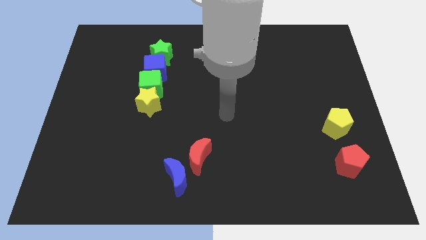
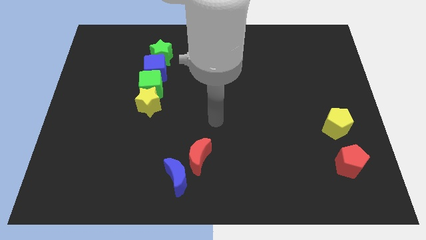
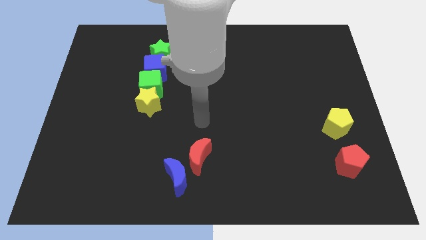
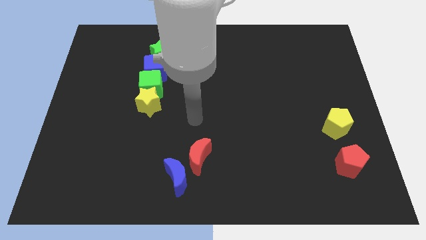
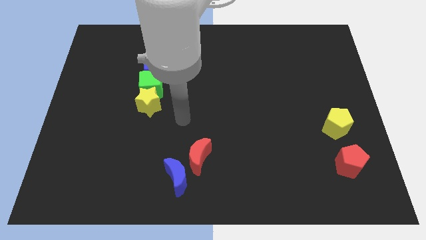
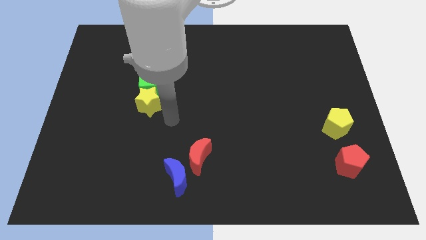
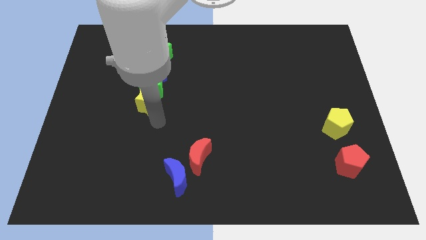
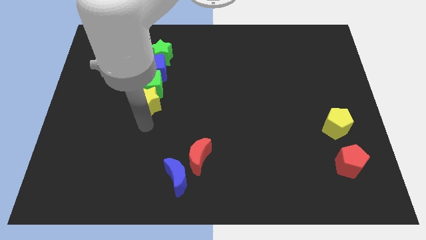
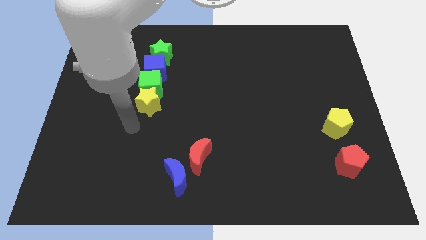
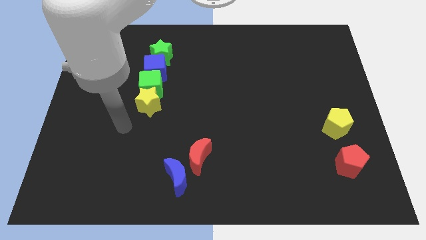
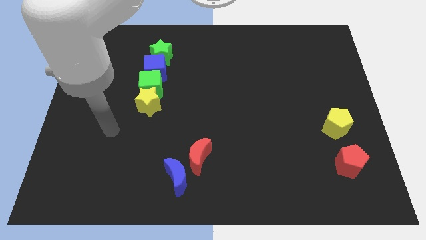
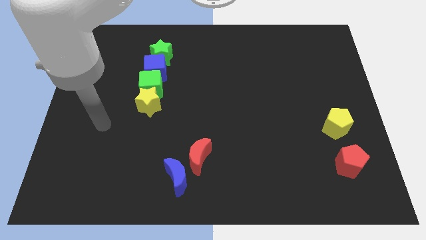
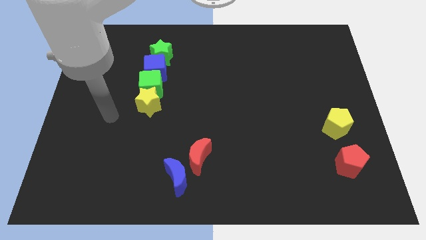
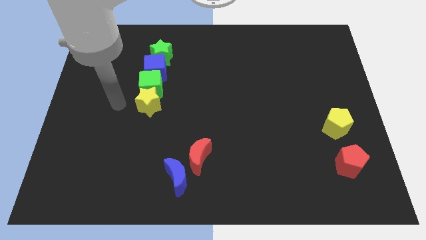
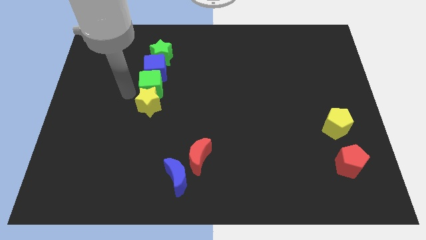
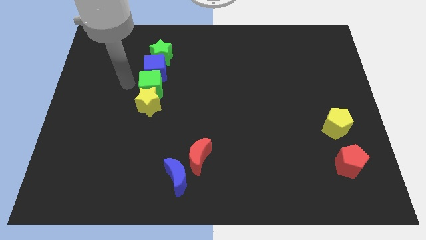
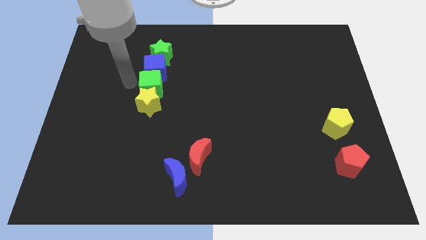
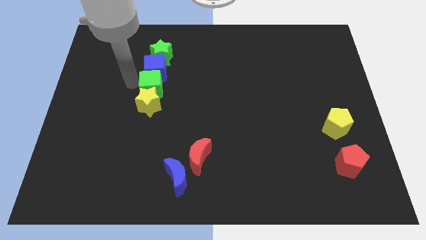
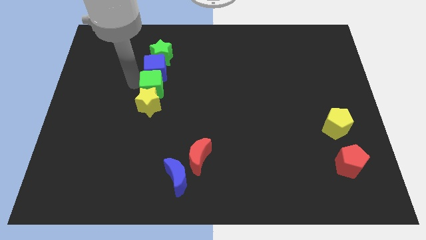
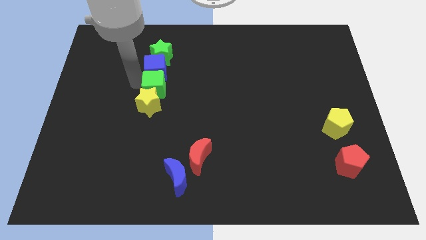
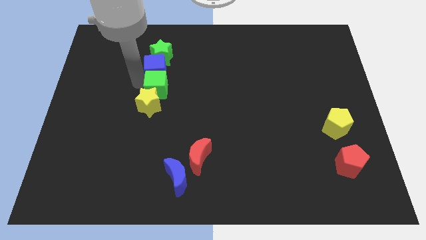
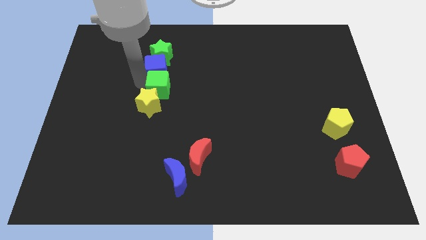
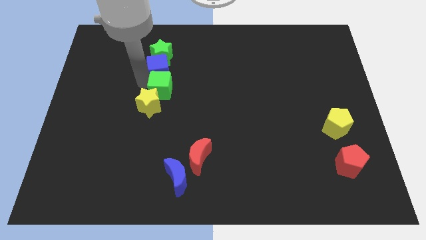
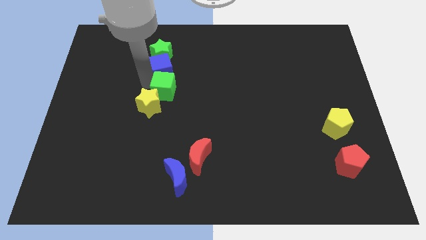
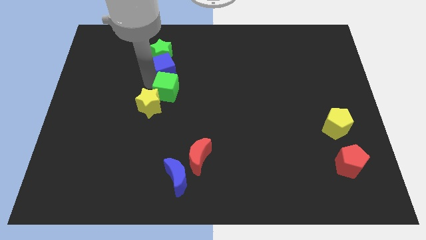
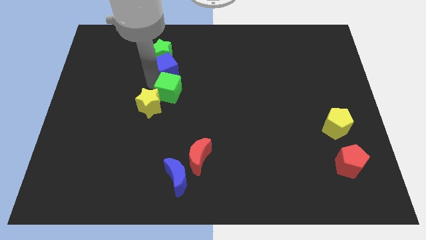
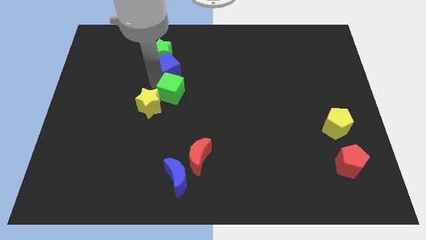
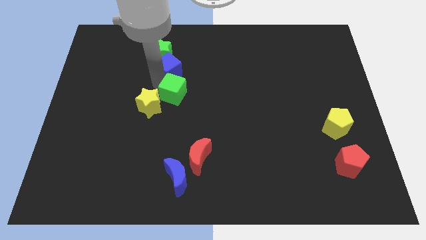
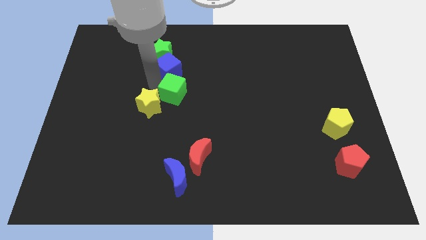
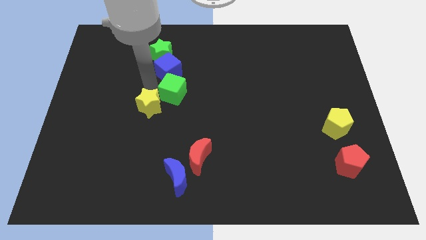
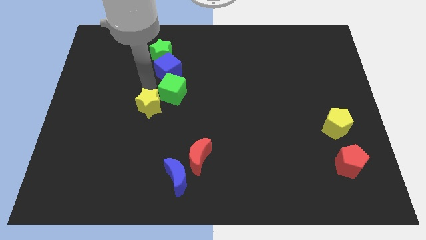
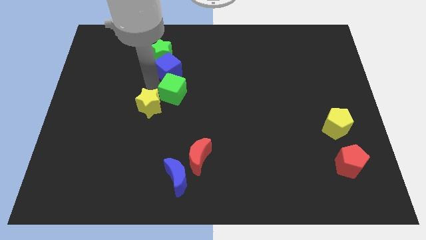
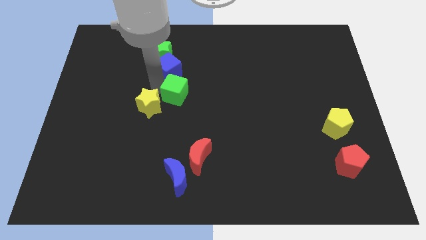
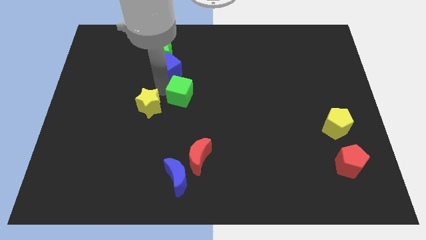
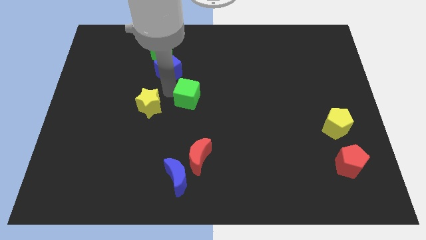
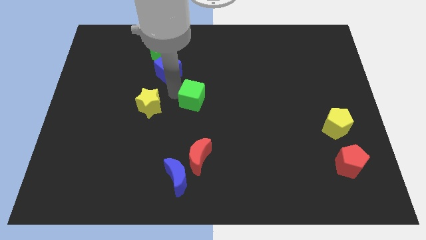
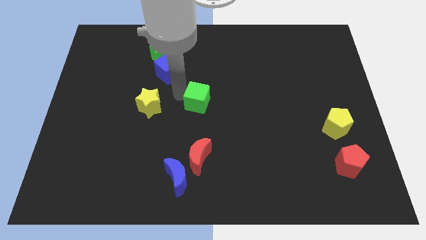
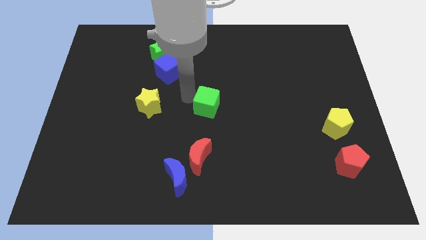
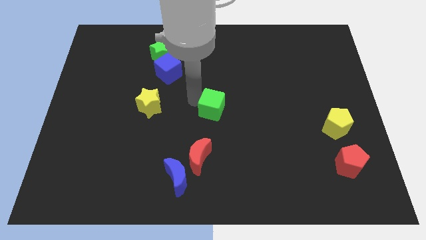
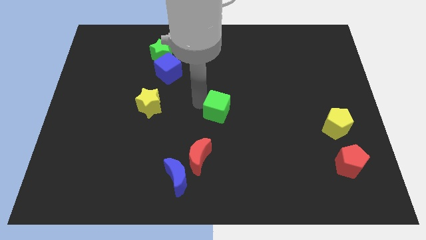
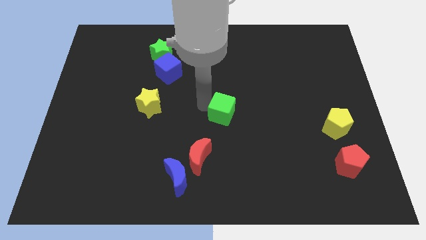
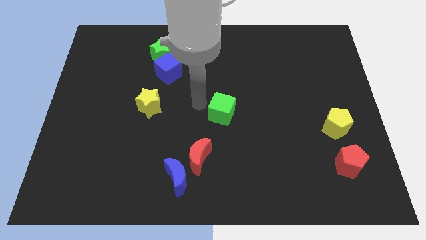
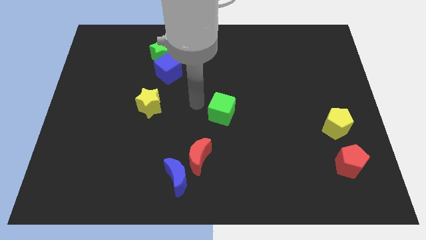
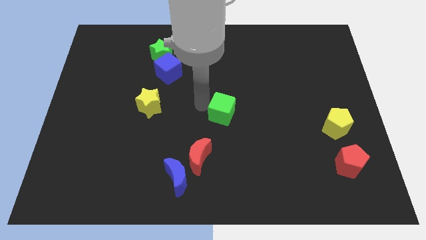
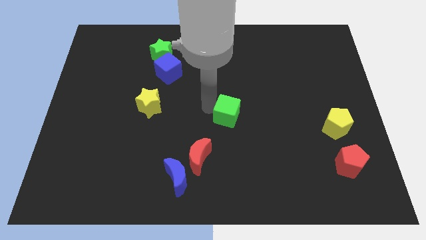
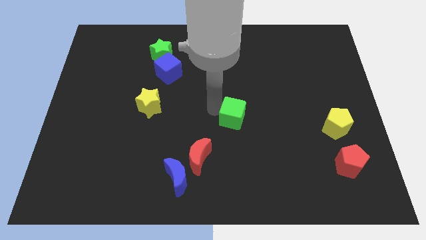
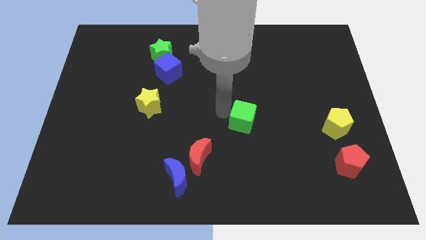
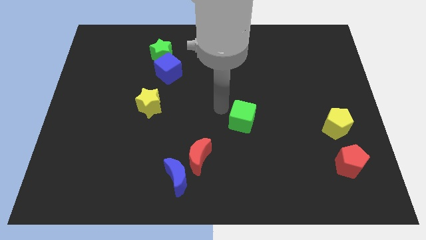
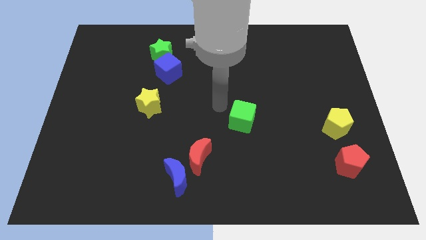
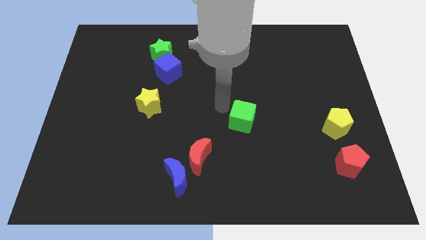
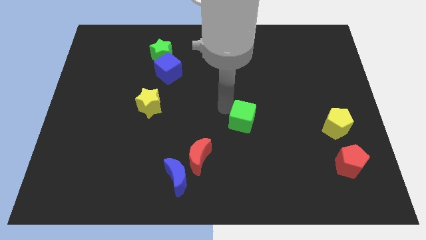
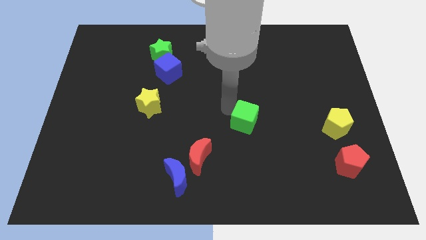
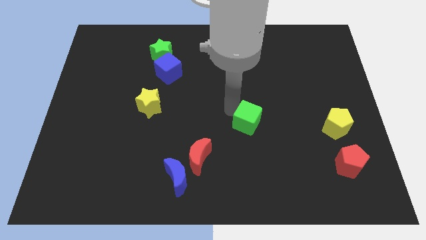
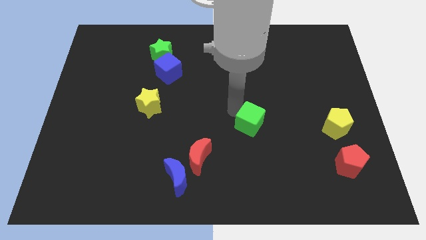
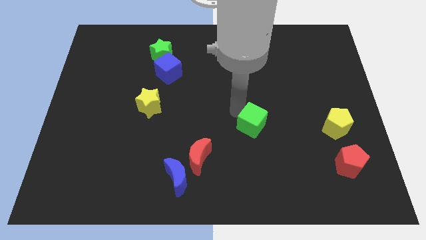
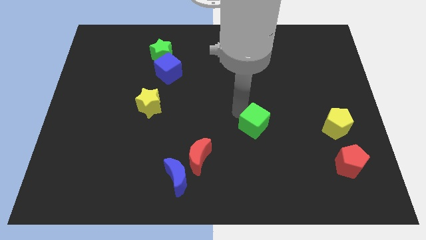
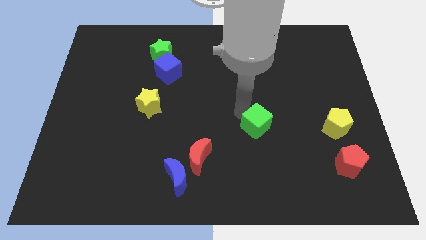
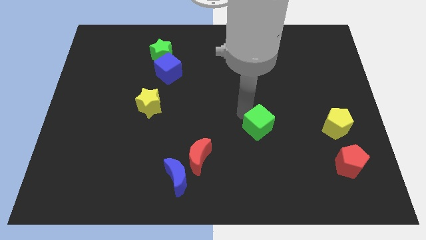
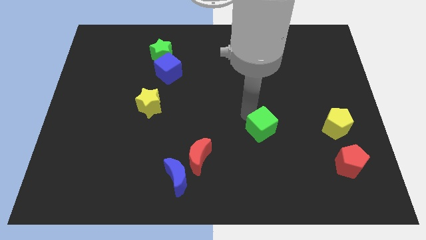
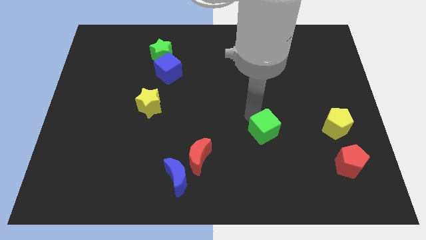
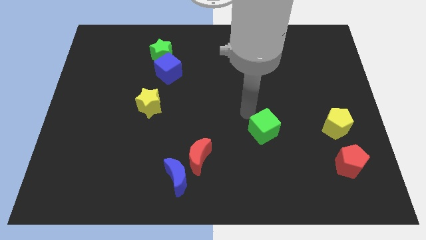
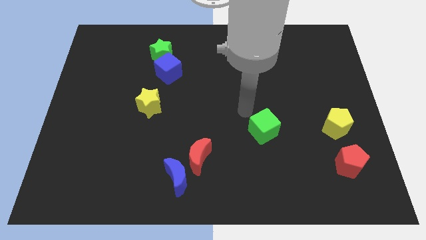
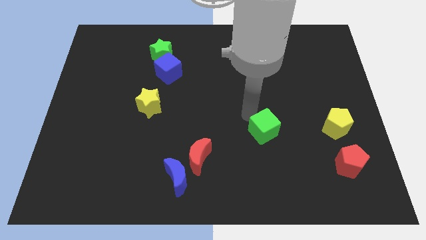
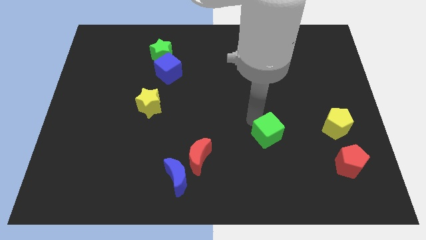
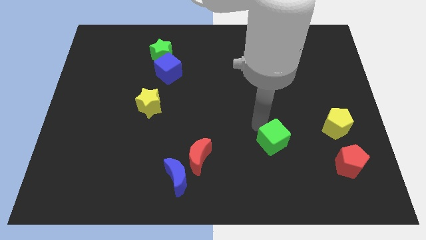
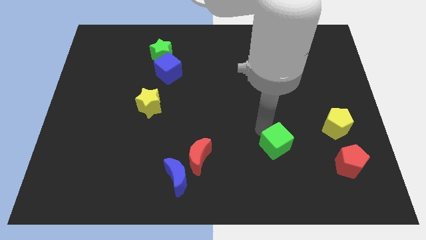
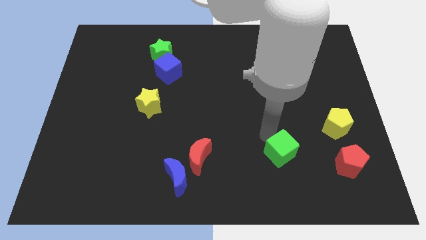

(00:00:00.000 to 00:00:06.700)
put the green cube to the left side of the red pentagon

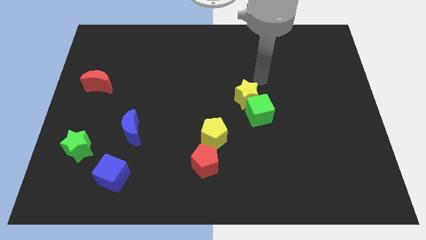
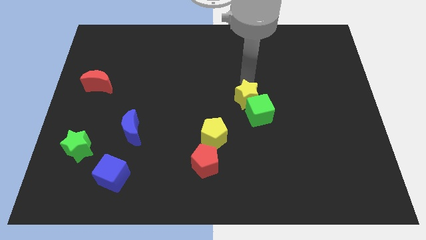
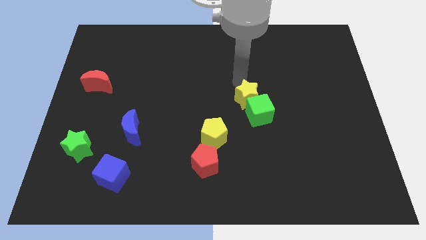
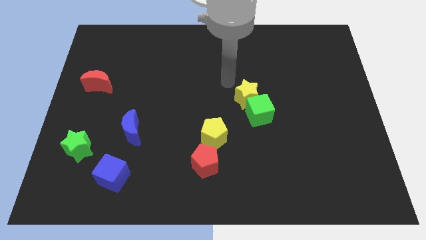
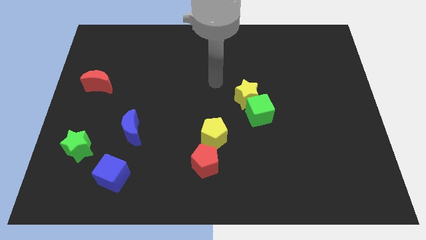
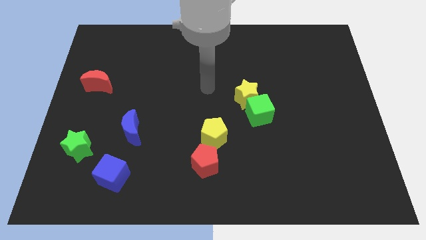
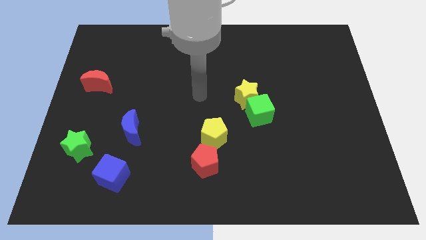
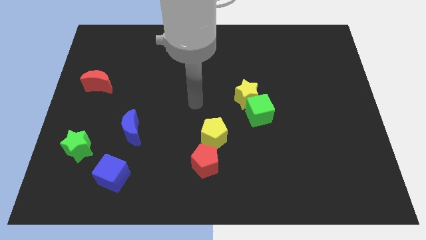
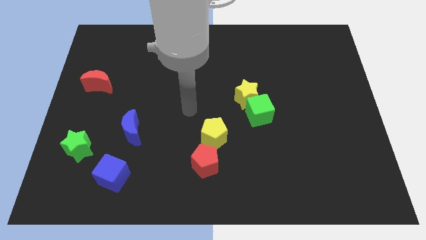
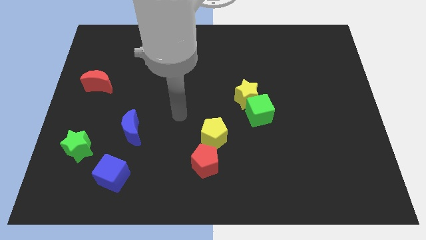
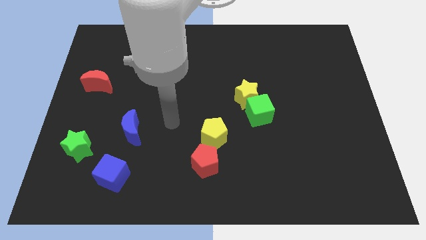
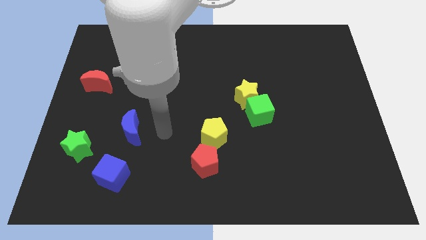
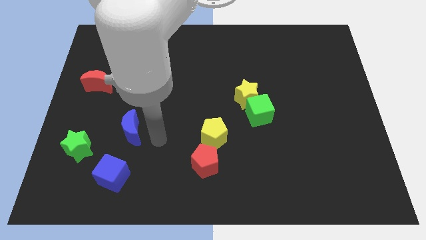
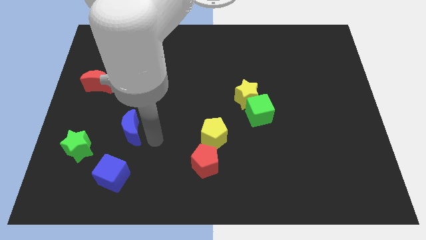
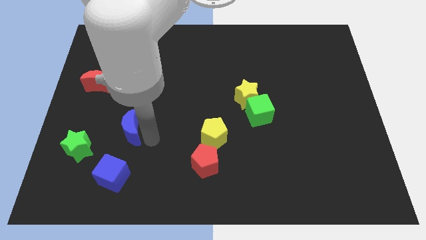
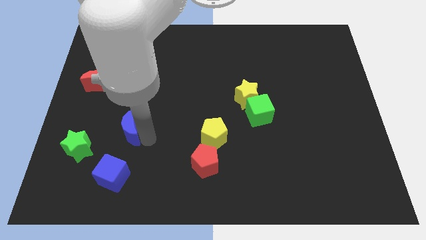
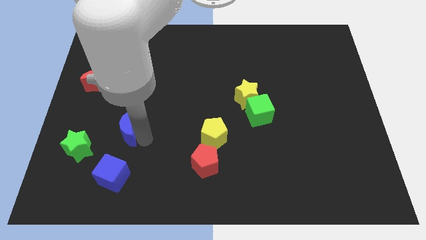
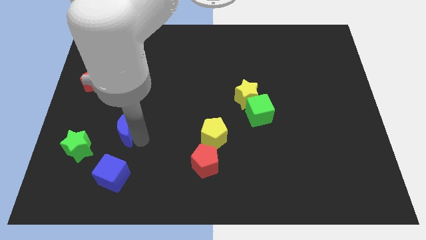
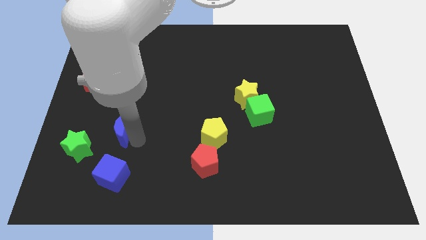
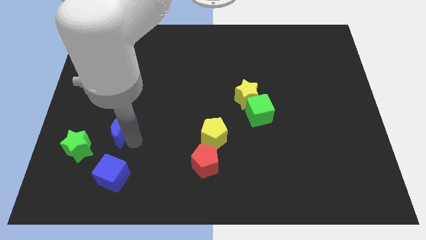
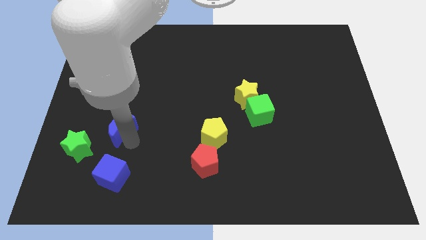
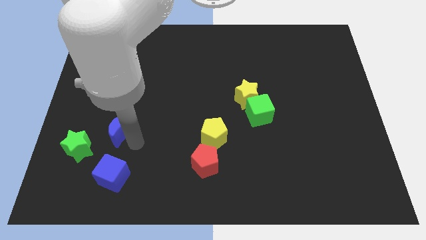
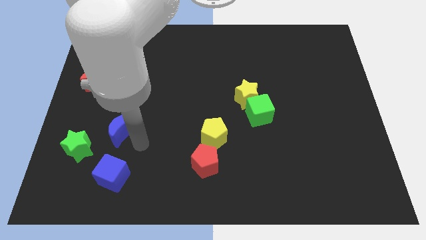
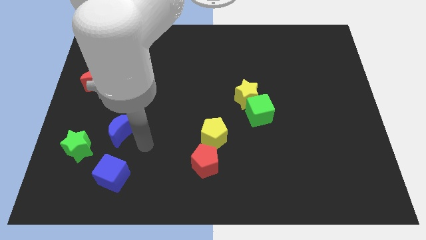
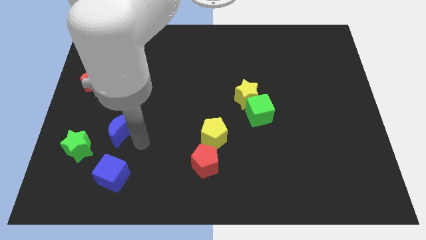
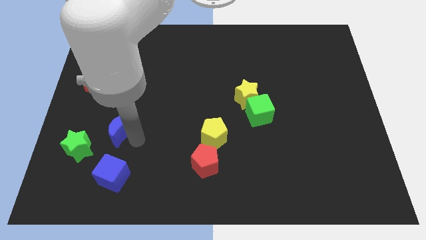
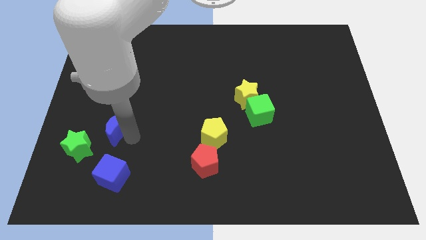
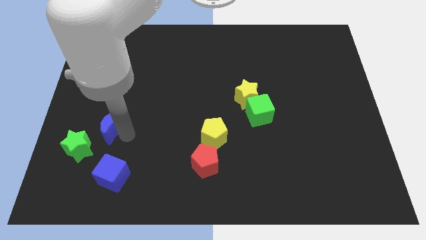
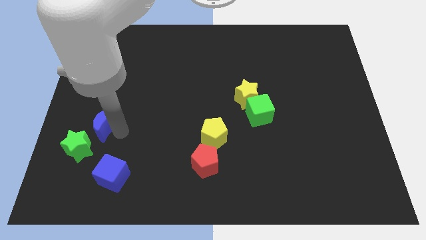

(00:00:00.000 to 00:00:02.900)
put the blue moon below the red moon
